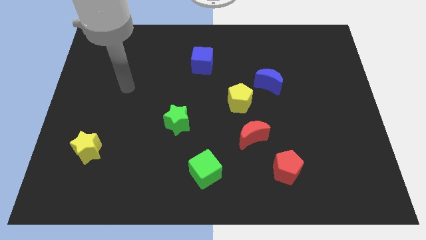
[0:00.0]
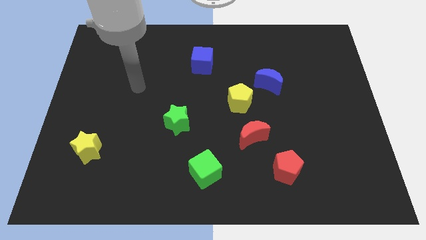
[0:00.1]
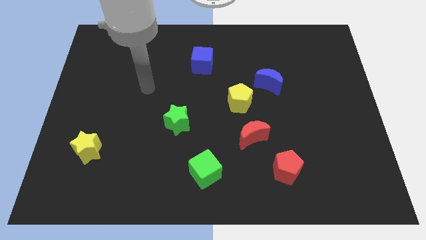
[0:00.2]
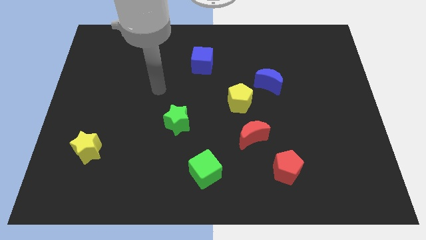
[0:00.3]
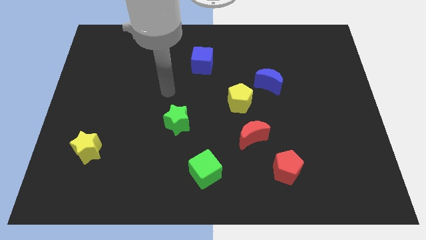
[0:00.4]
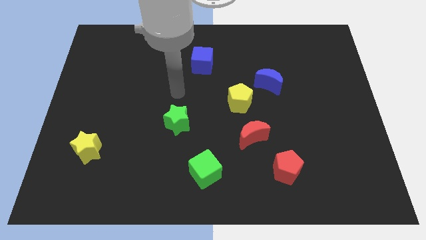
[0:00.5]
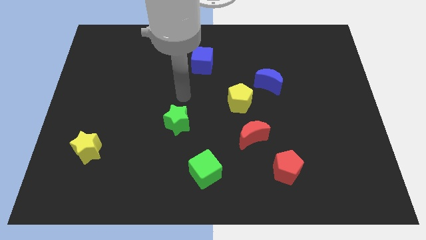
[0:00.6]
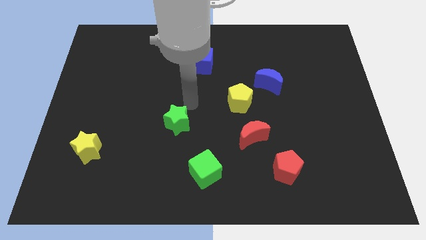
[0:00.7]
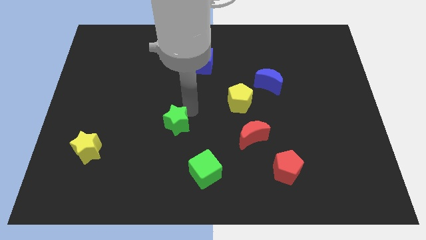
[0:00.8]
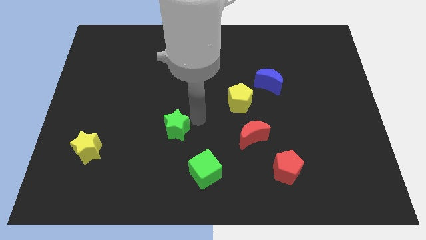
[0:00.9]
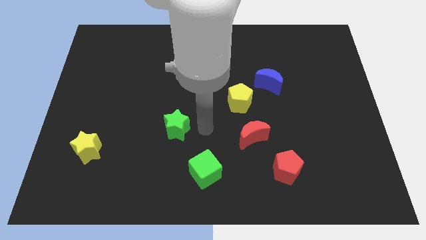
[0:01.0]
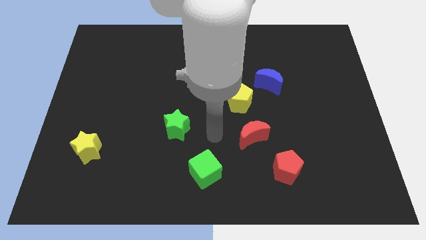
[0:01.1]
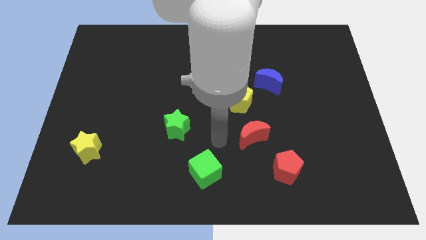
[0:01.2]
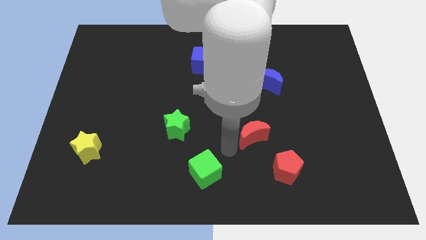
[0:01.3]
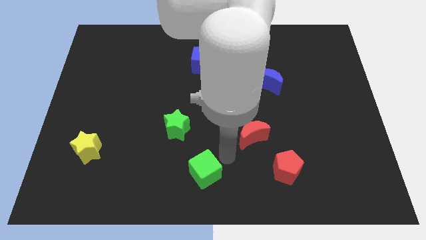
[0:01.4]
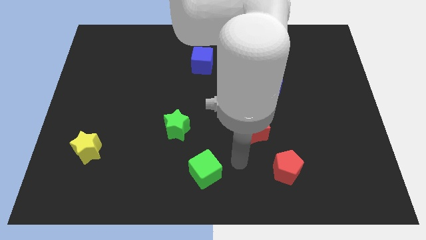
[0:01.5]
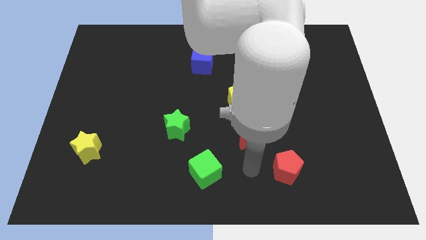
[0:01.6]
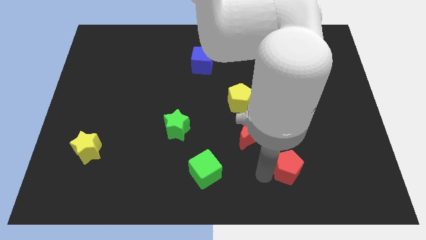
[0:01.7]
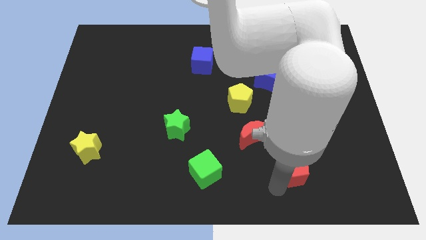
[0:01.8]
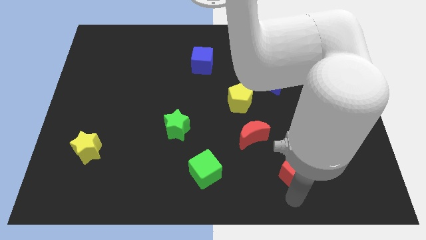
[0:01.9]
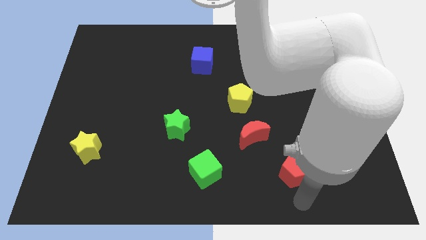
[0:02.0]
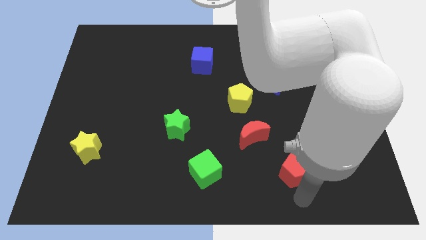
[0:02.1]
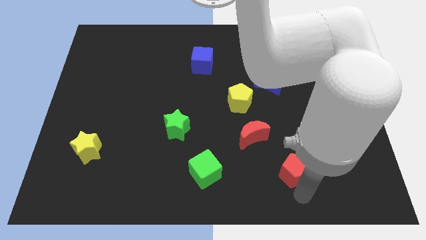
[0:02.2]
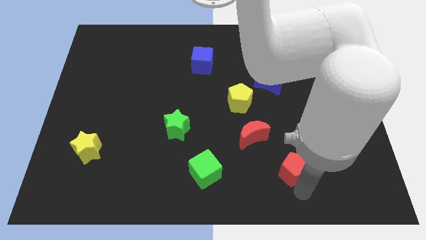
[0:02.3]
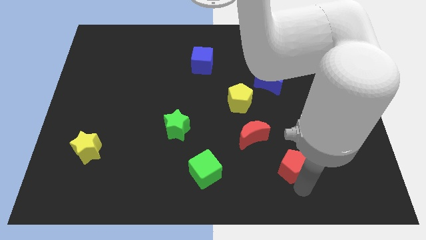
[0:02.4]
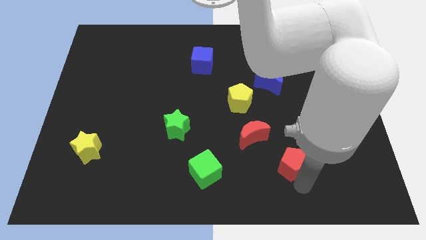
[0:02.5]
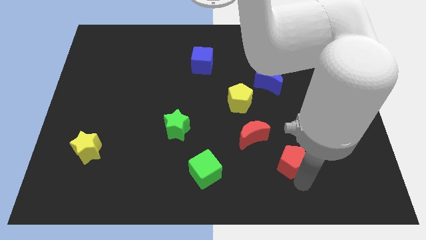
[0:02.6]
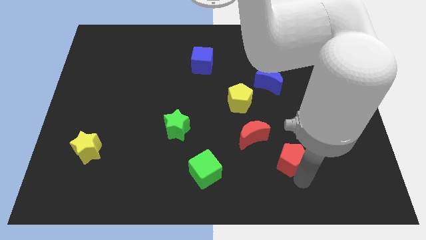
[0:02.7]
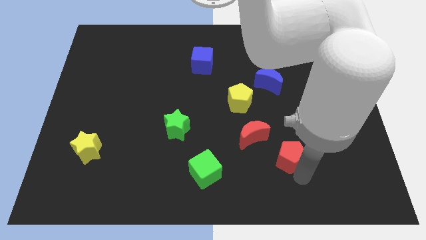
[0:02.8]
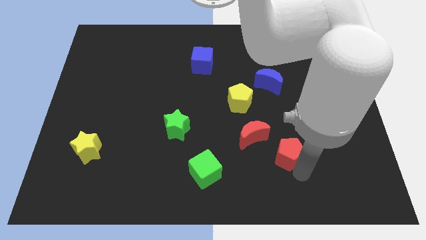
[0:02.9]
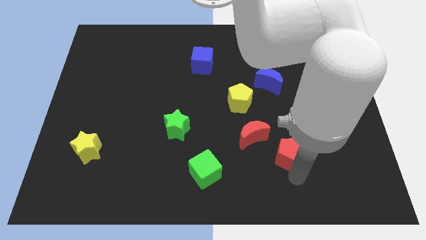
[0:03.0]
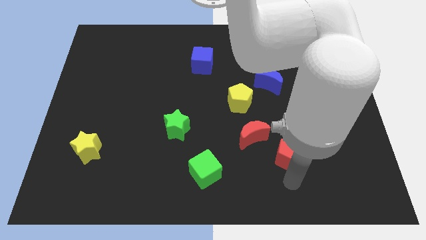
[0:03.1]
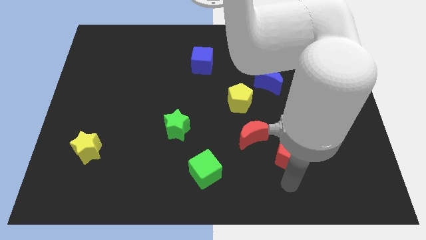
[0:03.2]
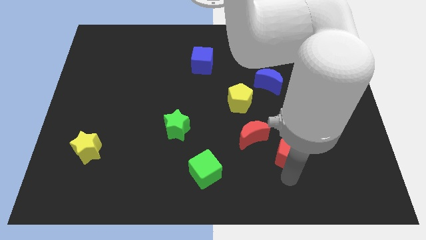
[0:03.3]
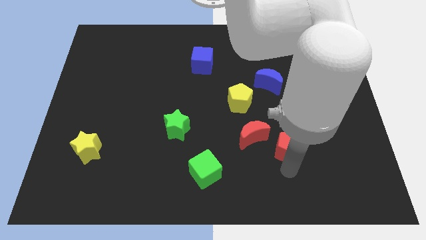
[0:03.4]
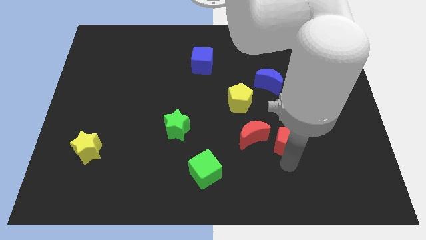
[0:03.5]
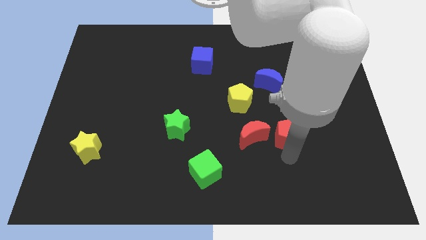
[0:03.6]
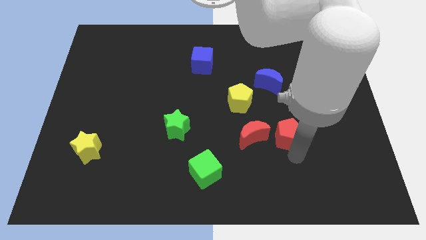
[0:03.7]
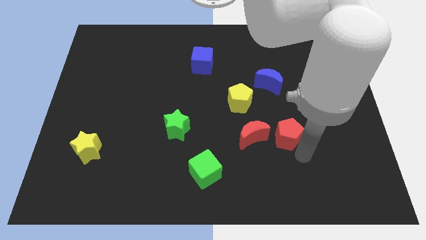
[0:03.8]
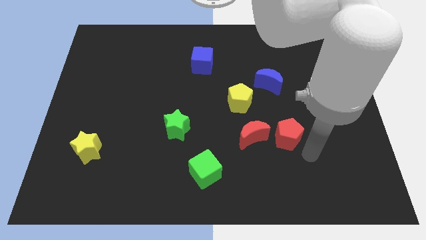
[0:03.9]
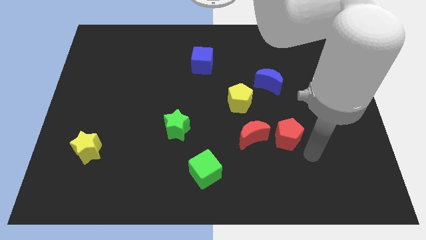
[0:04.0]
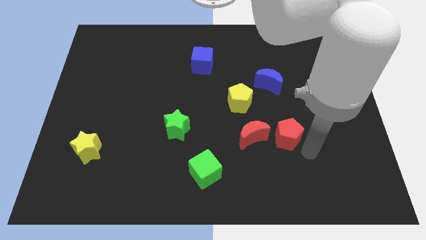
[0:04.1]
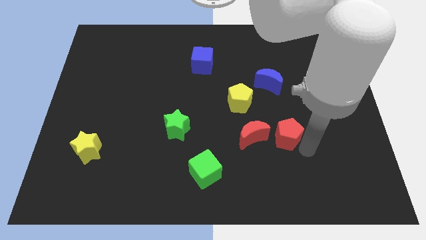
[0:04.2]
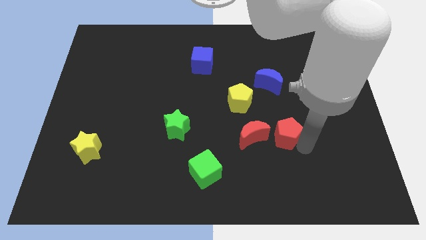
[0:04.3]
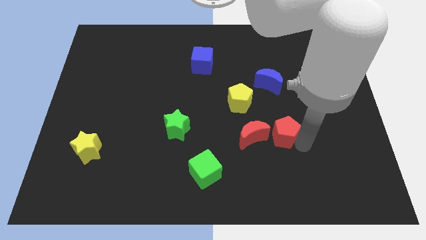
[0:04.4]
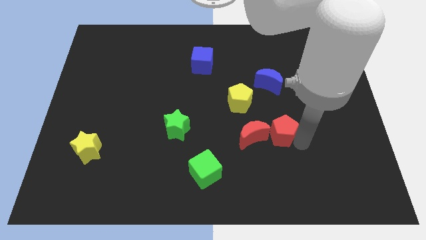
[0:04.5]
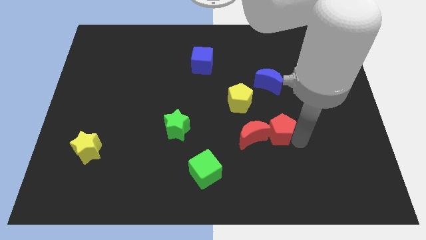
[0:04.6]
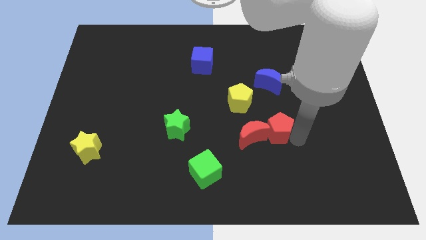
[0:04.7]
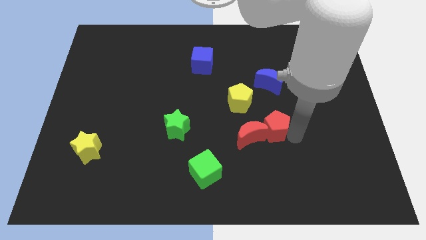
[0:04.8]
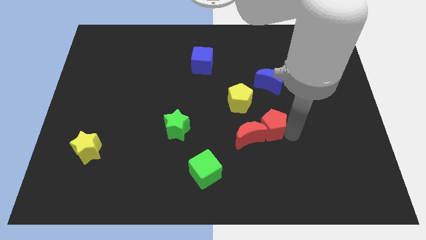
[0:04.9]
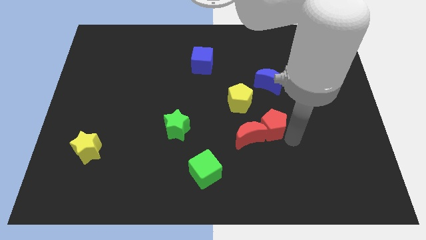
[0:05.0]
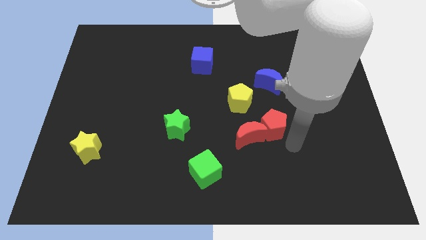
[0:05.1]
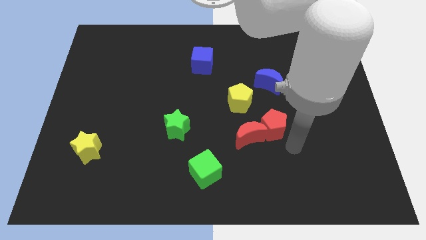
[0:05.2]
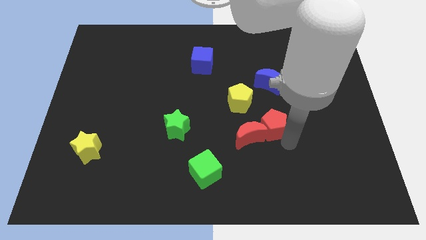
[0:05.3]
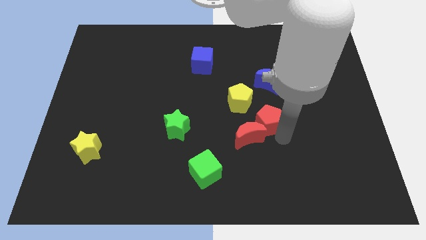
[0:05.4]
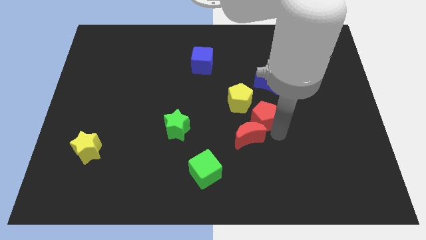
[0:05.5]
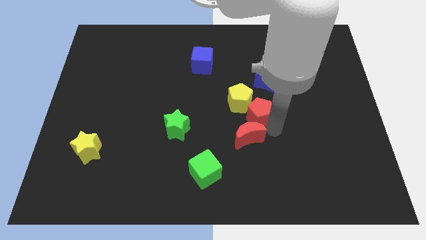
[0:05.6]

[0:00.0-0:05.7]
push the red pentagon next to the yellow pentagon

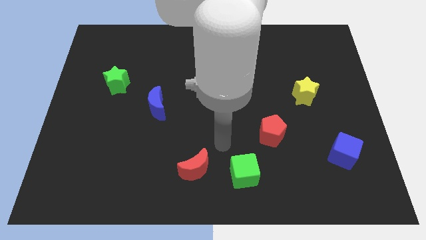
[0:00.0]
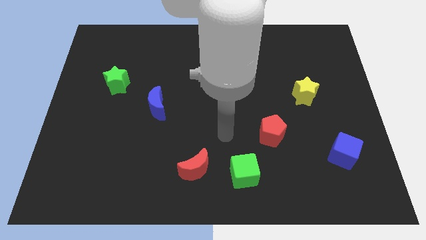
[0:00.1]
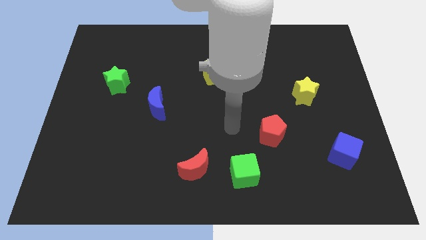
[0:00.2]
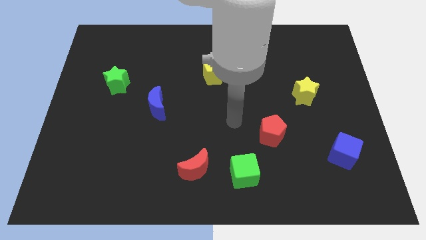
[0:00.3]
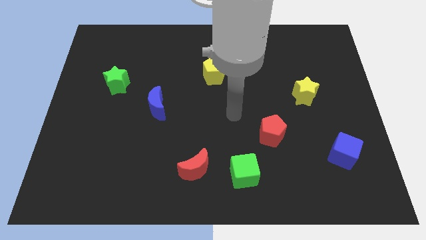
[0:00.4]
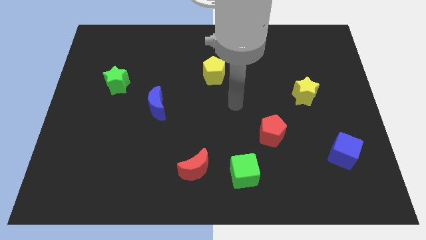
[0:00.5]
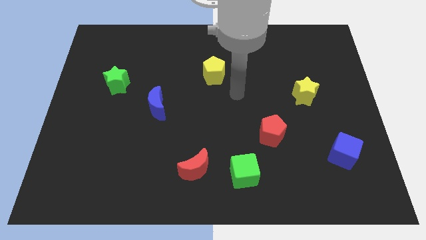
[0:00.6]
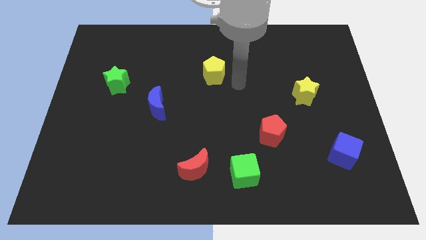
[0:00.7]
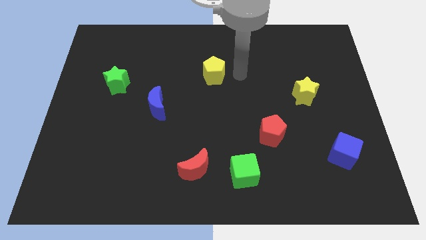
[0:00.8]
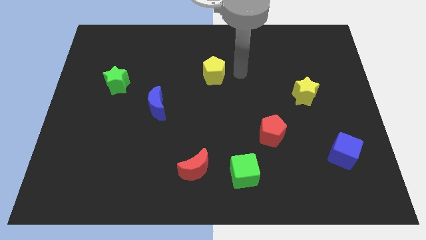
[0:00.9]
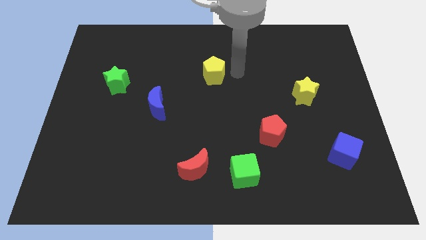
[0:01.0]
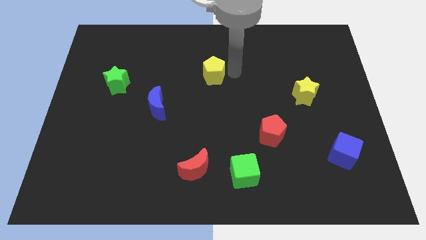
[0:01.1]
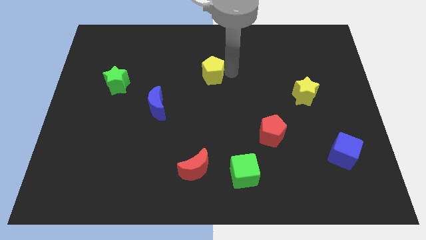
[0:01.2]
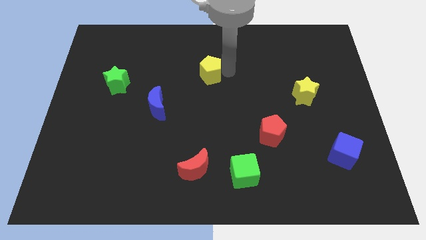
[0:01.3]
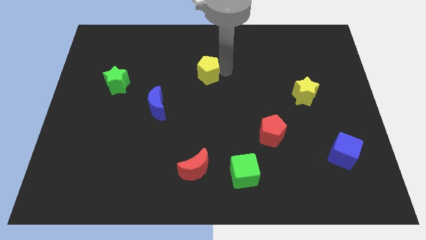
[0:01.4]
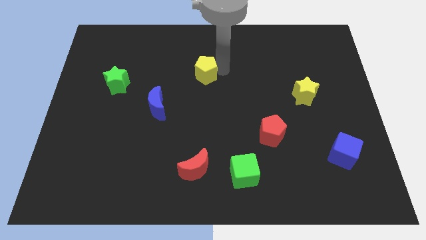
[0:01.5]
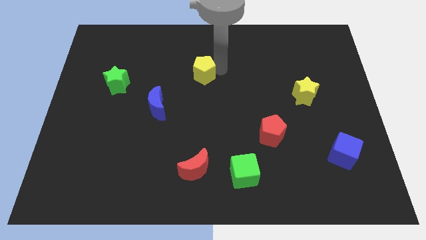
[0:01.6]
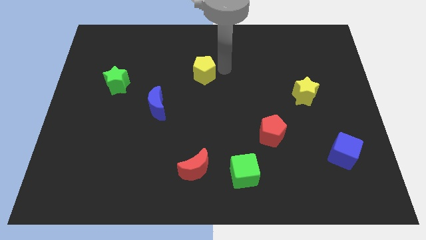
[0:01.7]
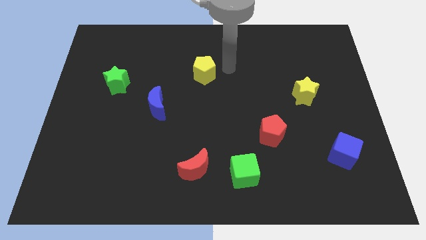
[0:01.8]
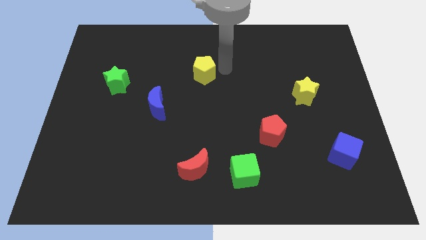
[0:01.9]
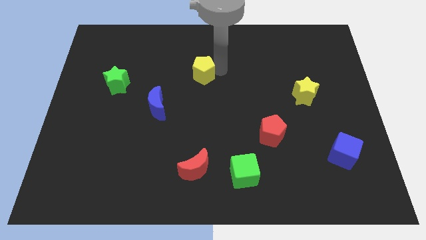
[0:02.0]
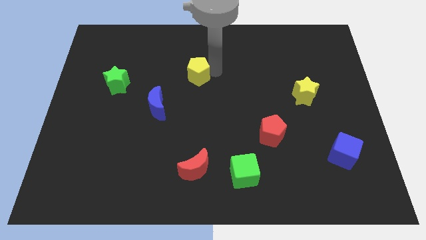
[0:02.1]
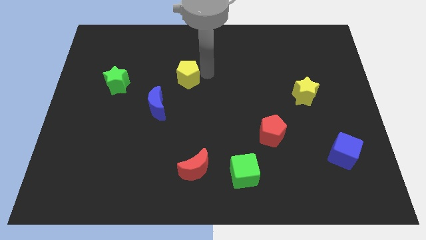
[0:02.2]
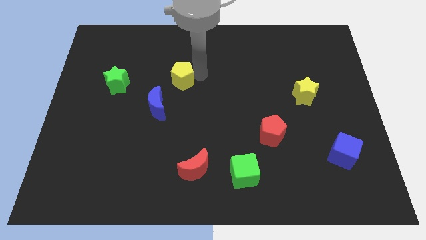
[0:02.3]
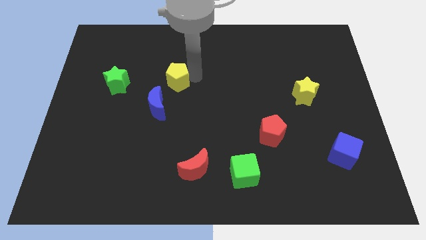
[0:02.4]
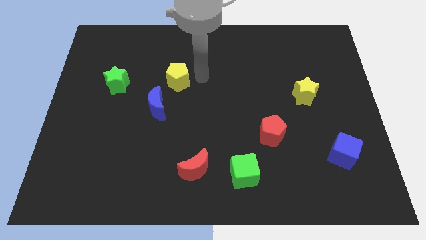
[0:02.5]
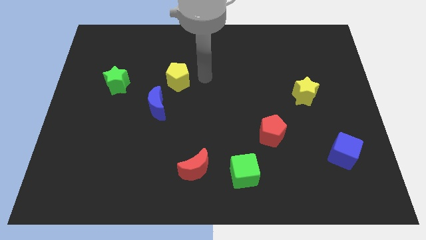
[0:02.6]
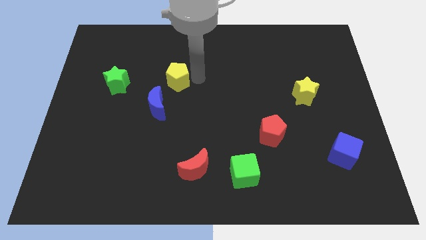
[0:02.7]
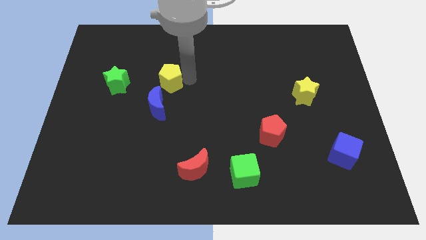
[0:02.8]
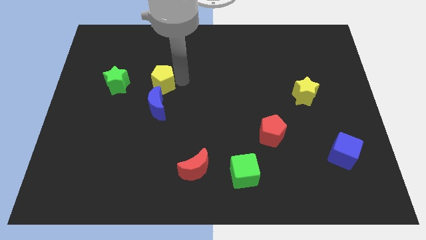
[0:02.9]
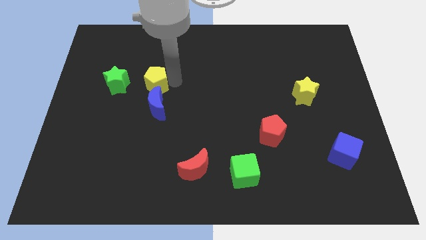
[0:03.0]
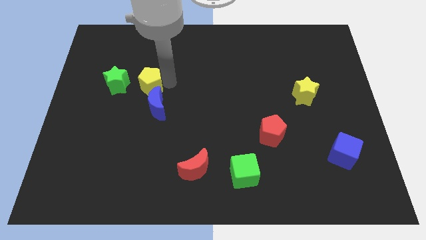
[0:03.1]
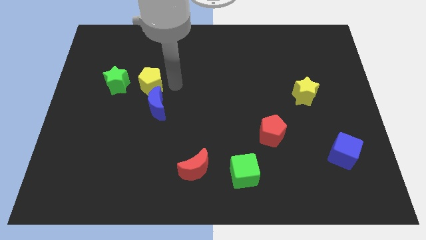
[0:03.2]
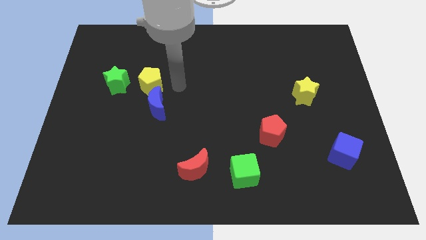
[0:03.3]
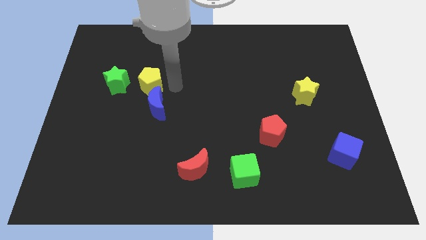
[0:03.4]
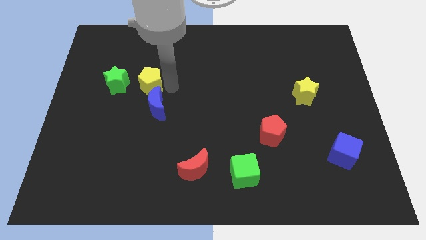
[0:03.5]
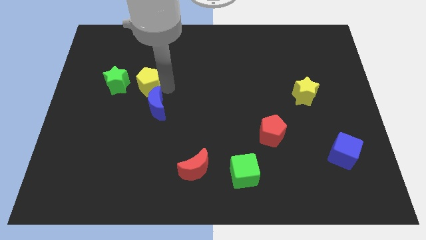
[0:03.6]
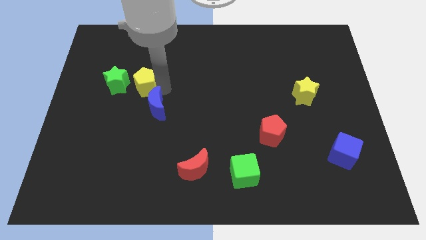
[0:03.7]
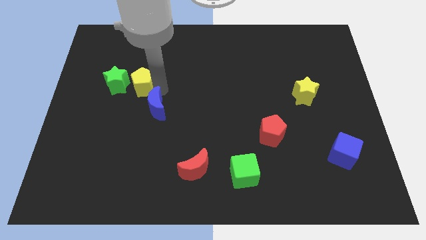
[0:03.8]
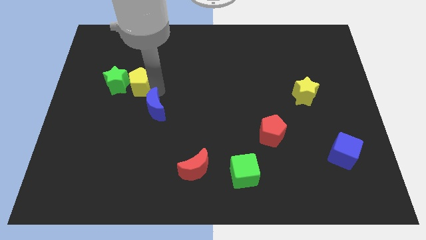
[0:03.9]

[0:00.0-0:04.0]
slide the yellow pentagon close to the green star
